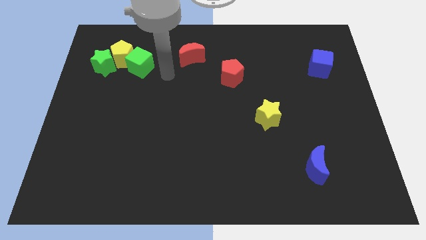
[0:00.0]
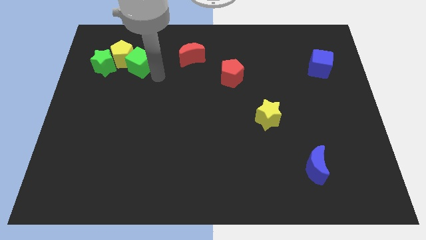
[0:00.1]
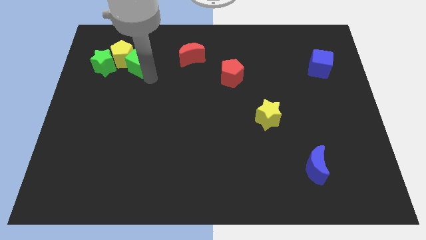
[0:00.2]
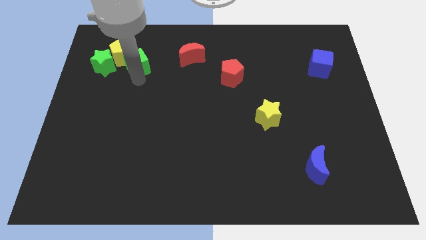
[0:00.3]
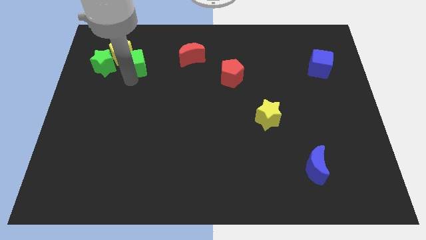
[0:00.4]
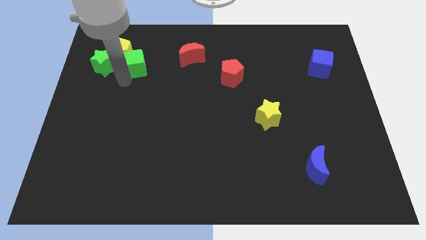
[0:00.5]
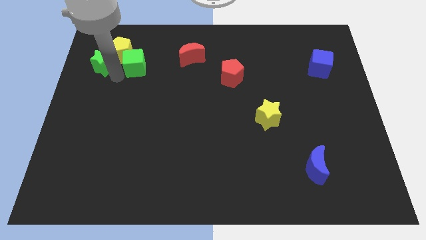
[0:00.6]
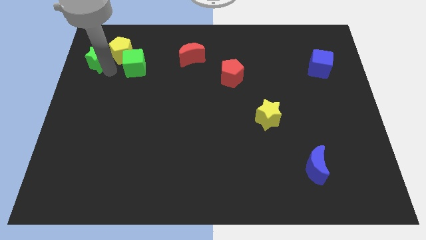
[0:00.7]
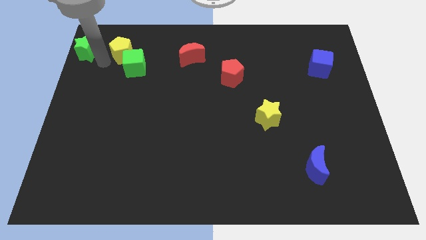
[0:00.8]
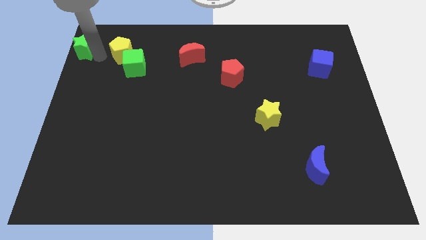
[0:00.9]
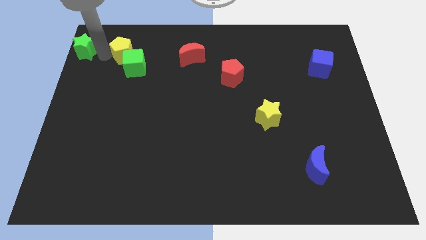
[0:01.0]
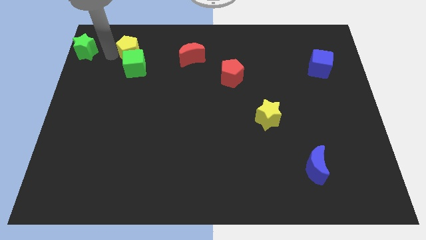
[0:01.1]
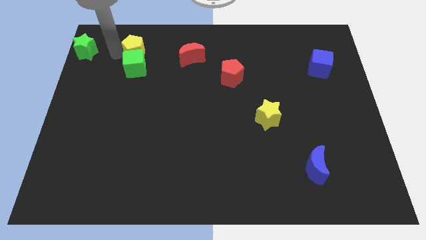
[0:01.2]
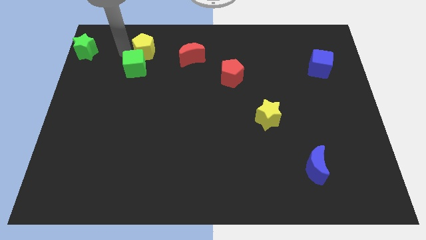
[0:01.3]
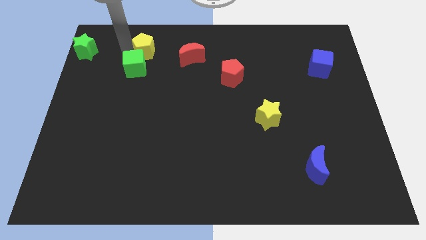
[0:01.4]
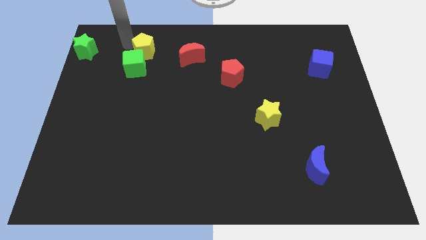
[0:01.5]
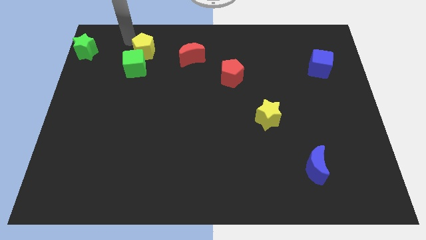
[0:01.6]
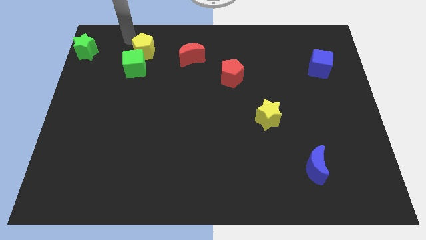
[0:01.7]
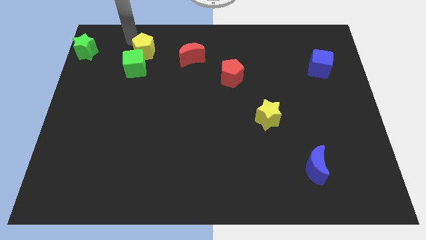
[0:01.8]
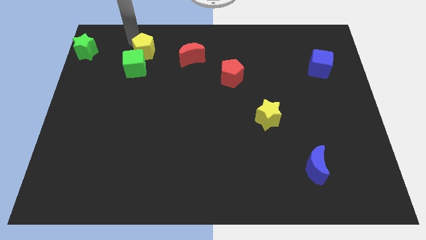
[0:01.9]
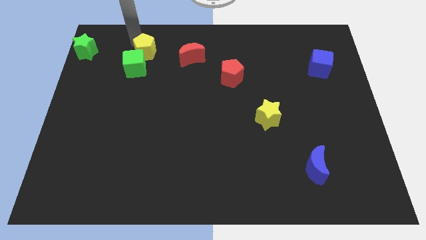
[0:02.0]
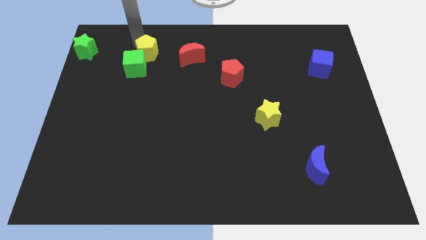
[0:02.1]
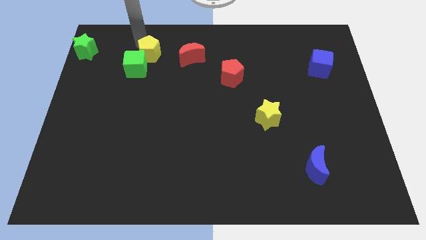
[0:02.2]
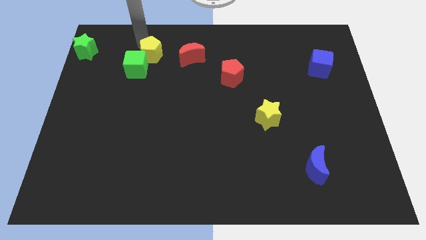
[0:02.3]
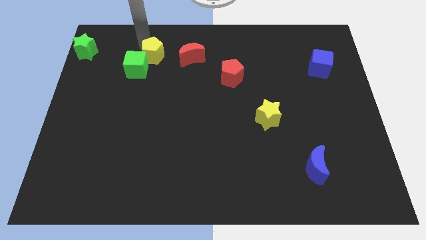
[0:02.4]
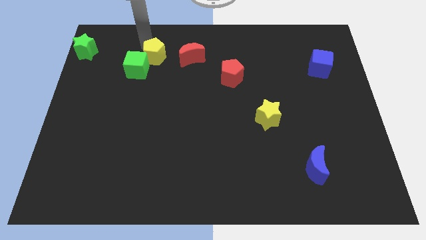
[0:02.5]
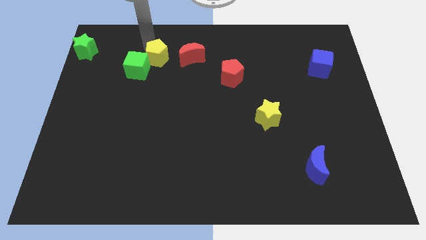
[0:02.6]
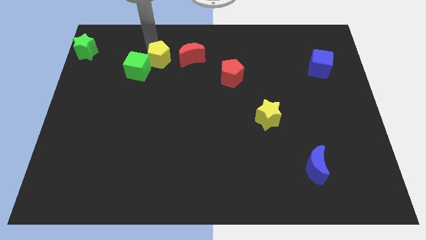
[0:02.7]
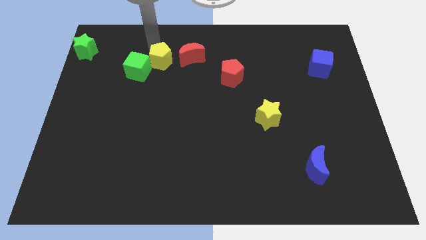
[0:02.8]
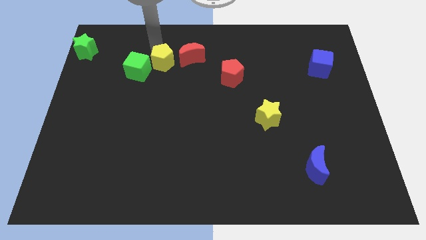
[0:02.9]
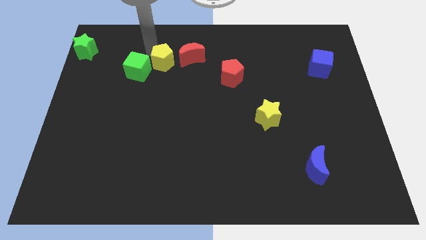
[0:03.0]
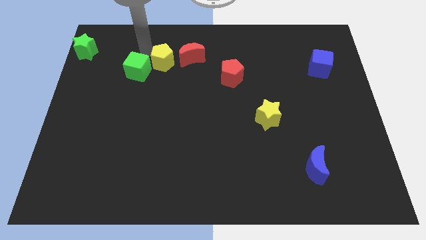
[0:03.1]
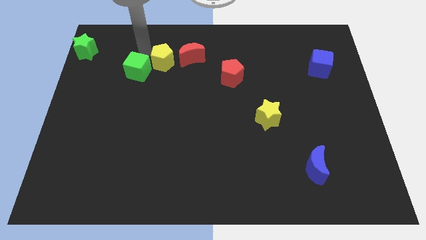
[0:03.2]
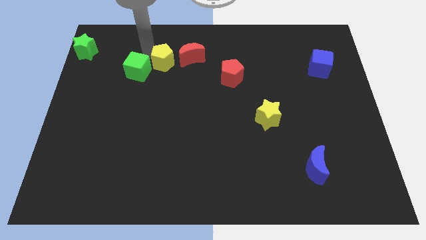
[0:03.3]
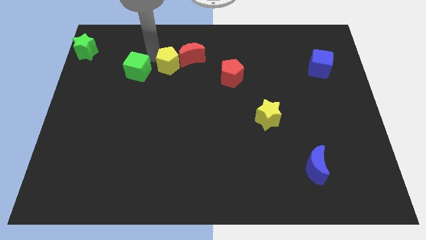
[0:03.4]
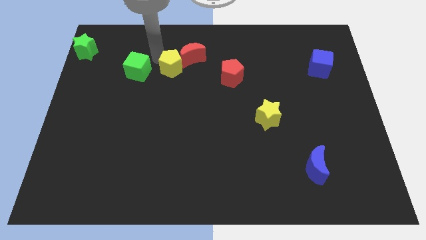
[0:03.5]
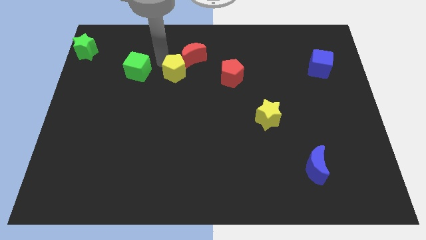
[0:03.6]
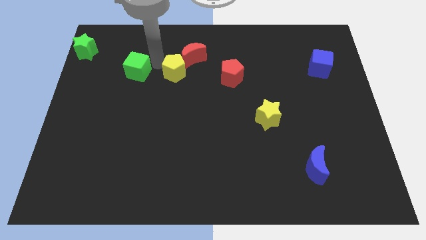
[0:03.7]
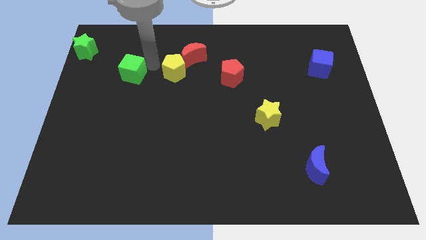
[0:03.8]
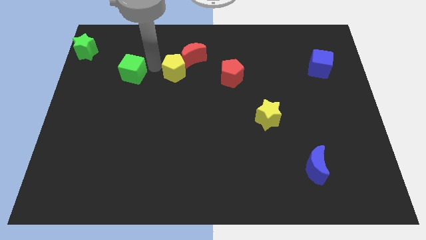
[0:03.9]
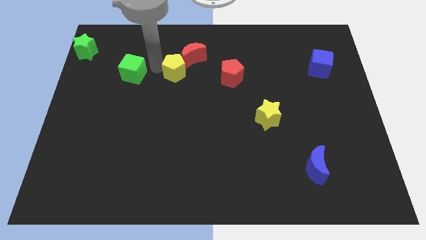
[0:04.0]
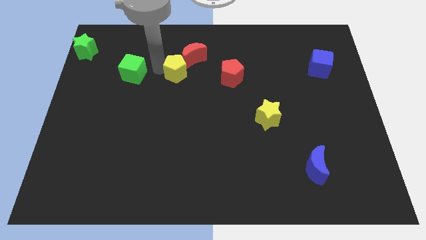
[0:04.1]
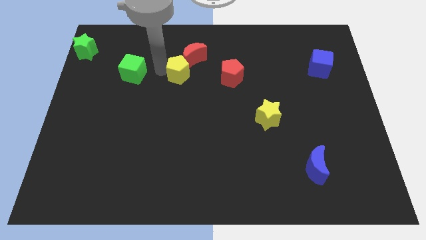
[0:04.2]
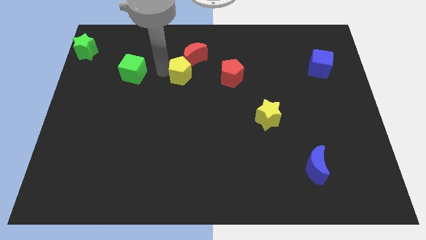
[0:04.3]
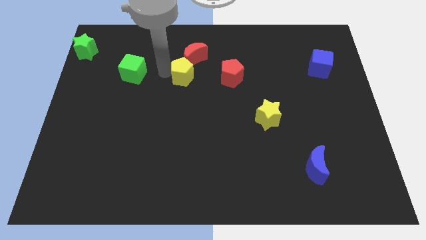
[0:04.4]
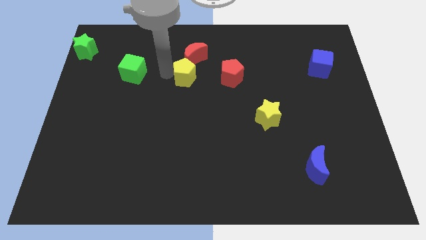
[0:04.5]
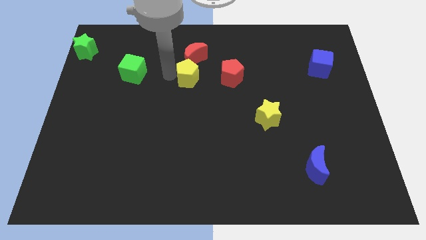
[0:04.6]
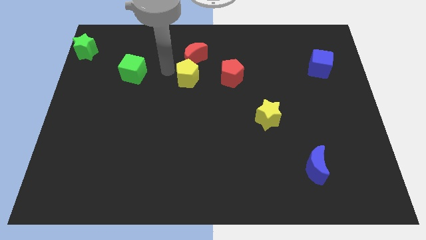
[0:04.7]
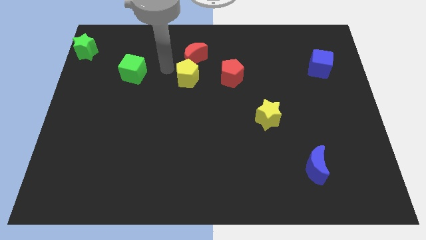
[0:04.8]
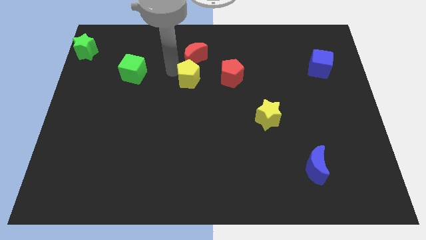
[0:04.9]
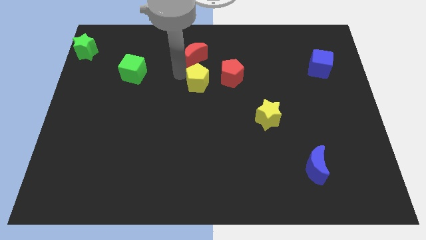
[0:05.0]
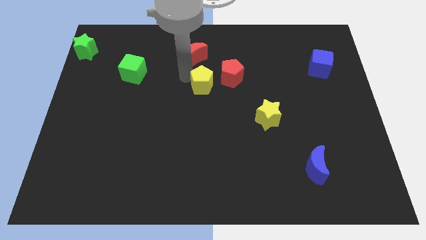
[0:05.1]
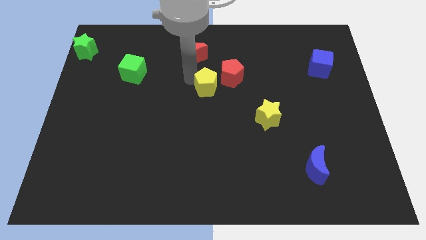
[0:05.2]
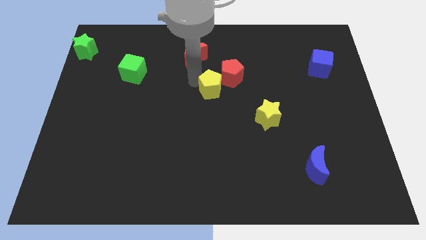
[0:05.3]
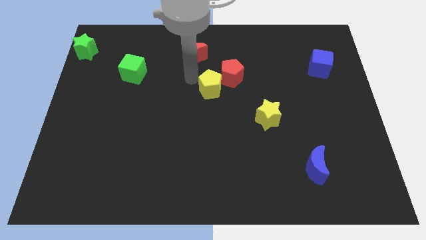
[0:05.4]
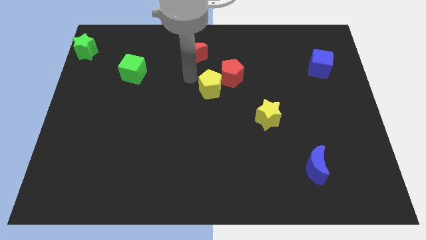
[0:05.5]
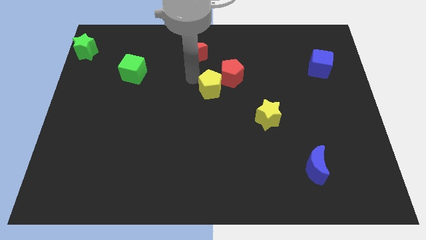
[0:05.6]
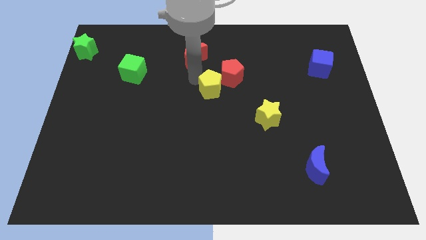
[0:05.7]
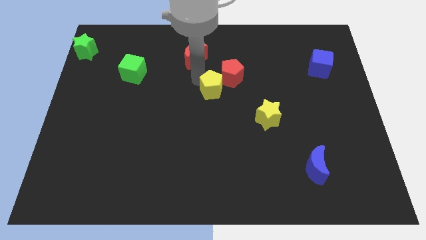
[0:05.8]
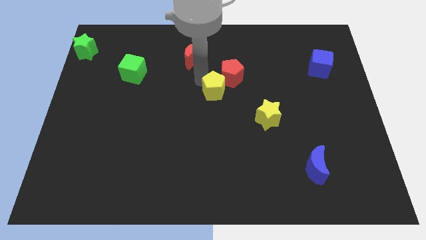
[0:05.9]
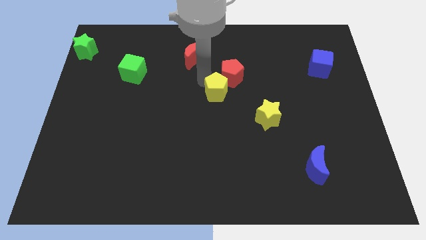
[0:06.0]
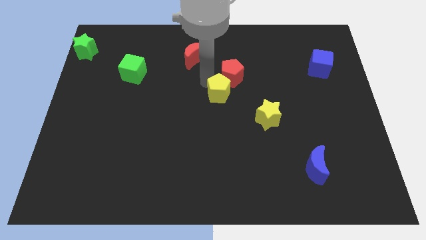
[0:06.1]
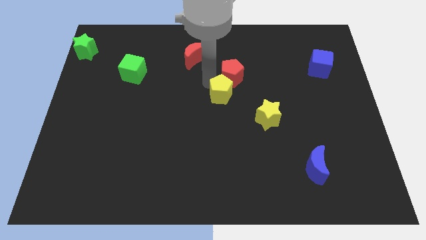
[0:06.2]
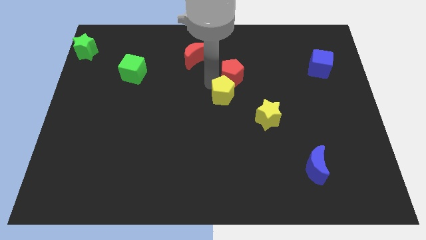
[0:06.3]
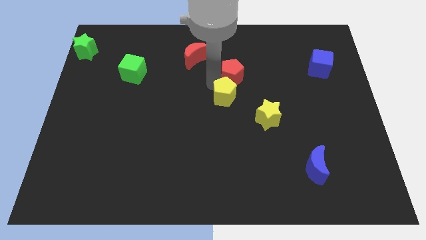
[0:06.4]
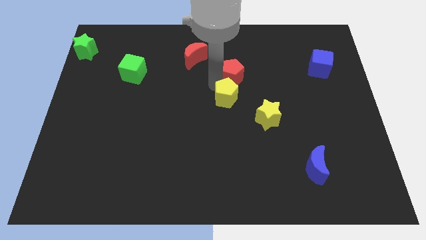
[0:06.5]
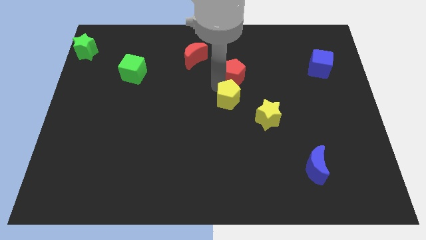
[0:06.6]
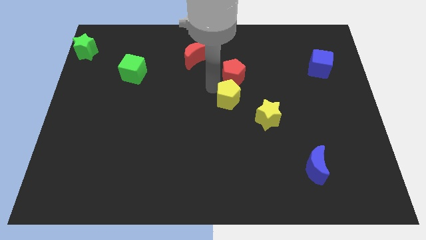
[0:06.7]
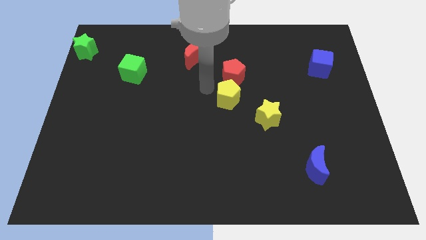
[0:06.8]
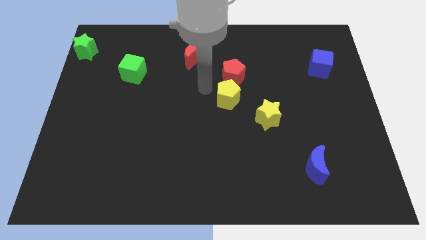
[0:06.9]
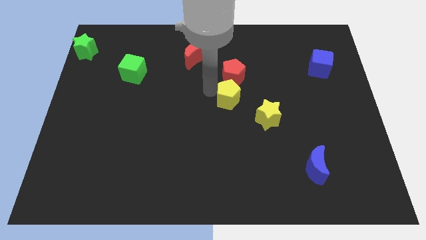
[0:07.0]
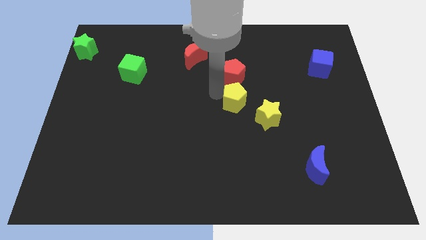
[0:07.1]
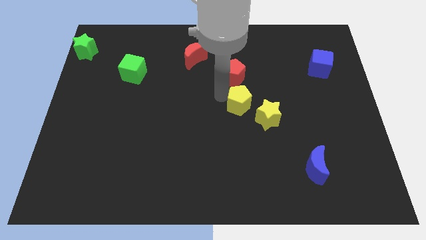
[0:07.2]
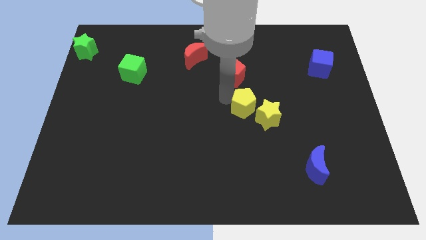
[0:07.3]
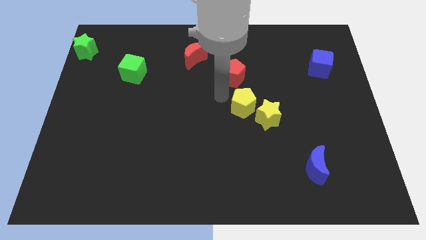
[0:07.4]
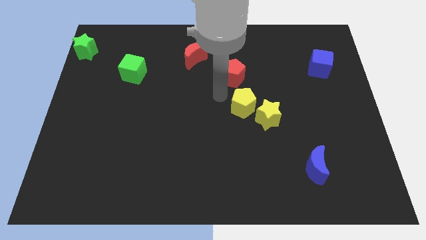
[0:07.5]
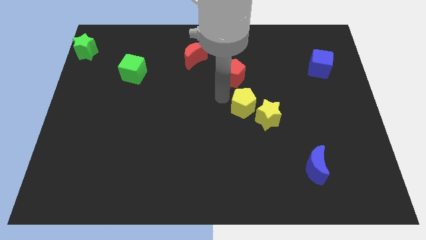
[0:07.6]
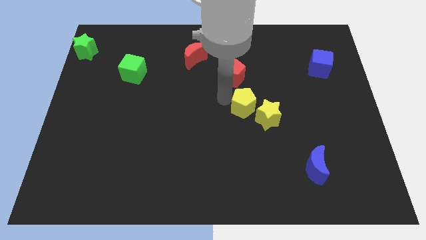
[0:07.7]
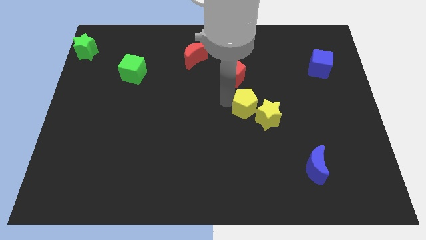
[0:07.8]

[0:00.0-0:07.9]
move the yellow pentagon close to the yellow star
